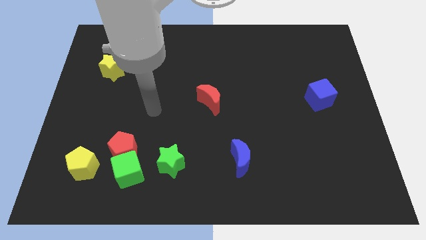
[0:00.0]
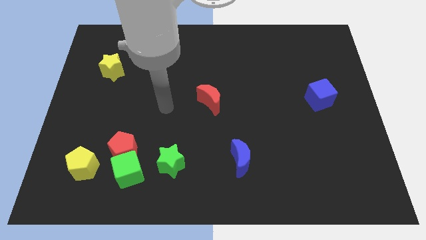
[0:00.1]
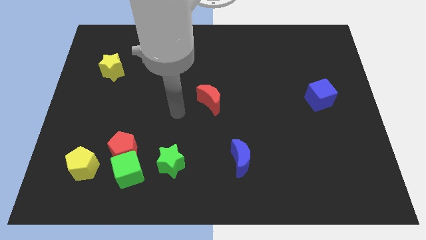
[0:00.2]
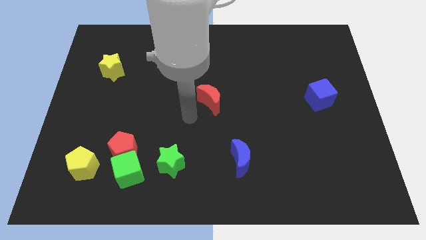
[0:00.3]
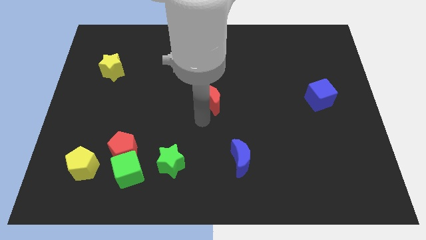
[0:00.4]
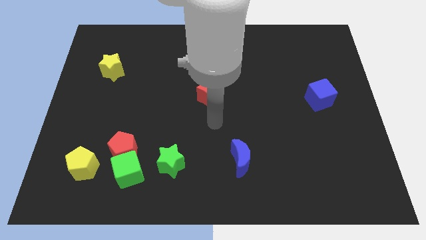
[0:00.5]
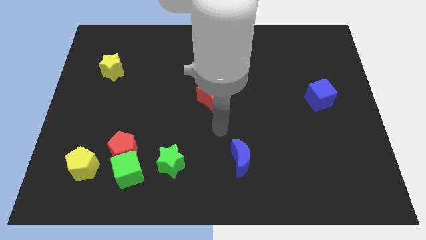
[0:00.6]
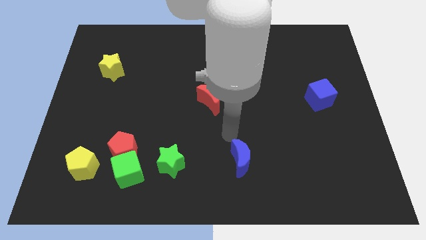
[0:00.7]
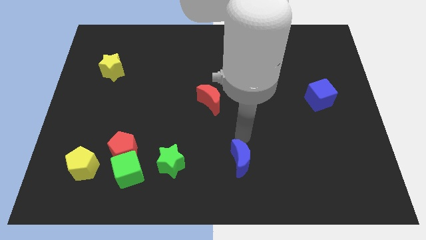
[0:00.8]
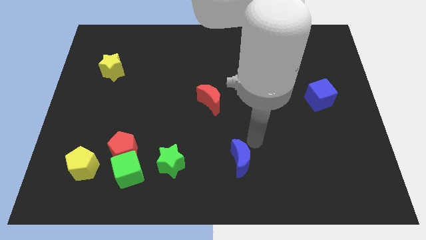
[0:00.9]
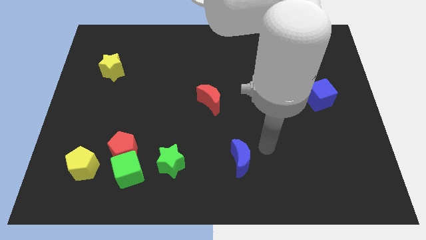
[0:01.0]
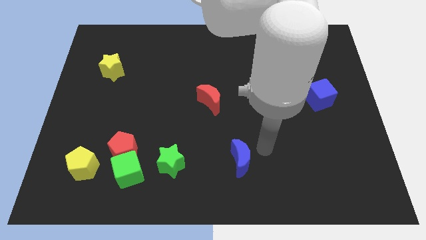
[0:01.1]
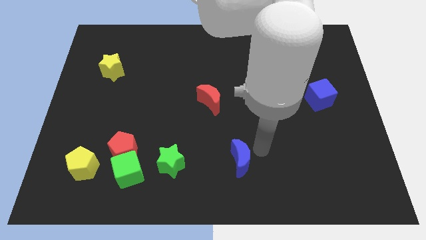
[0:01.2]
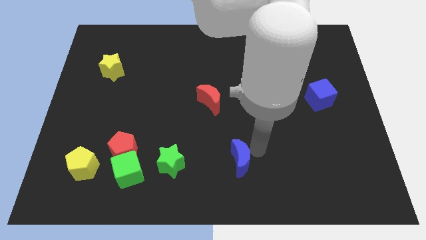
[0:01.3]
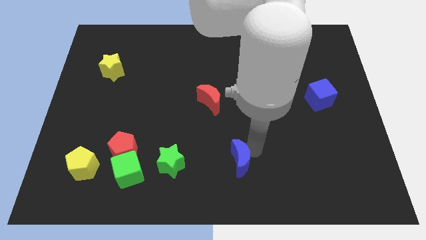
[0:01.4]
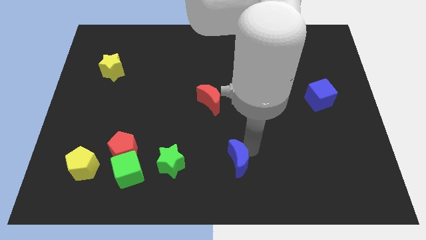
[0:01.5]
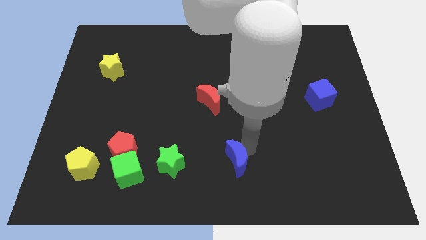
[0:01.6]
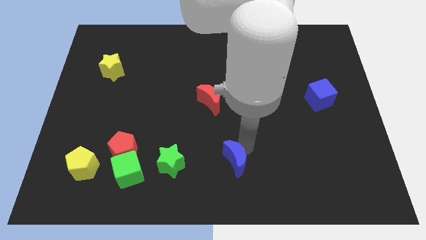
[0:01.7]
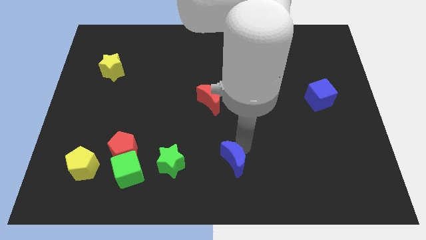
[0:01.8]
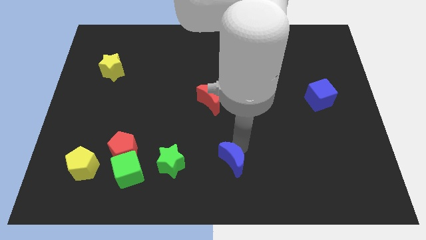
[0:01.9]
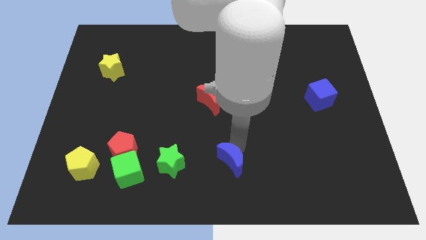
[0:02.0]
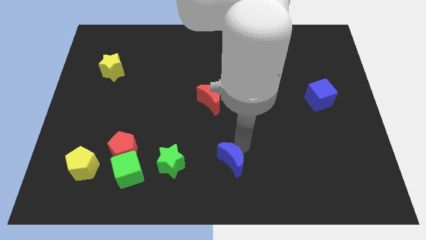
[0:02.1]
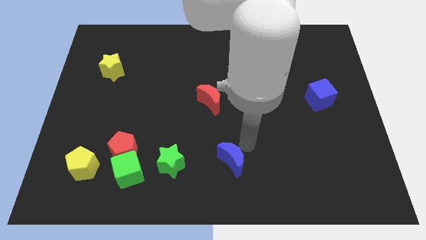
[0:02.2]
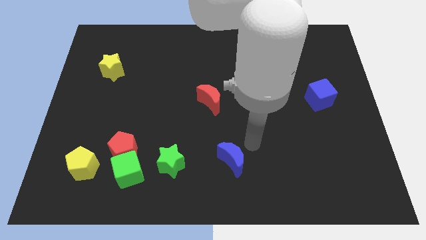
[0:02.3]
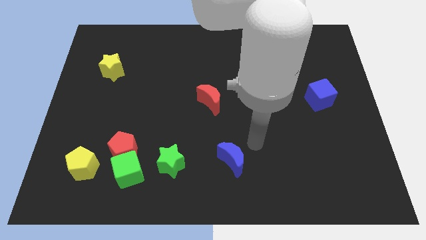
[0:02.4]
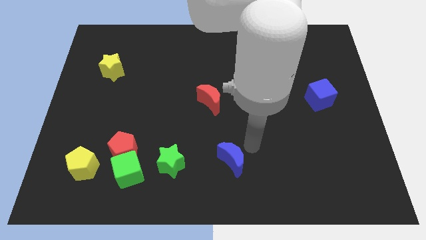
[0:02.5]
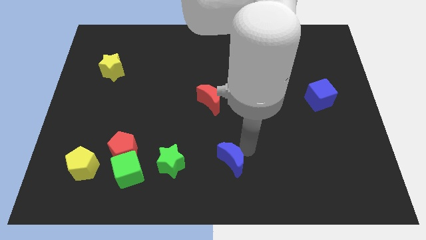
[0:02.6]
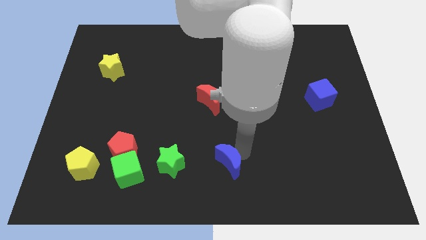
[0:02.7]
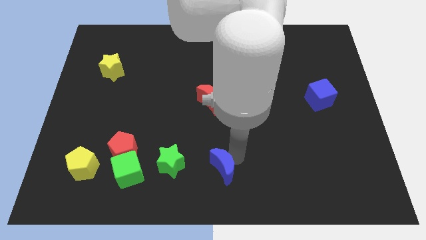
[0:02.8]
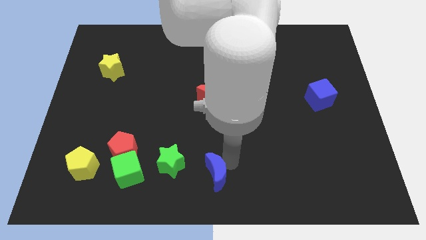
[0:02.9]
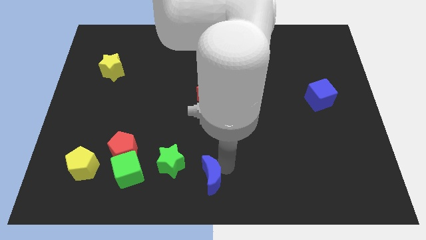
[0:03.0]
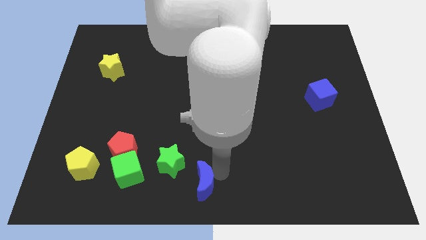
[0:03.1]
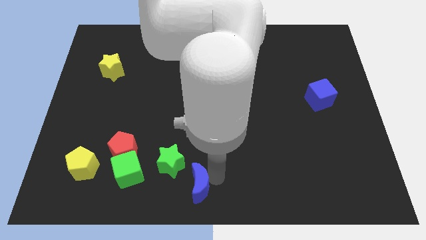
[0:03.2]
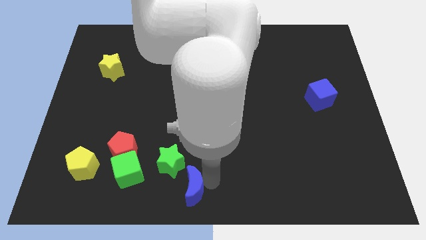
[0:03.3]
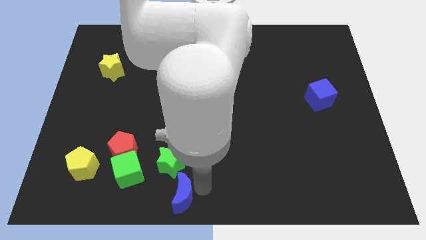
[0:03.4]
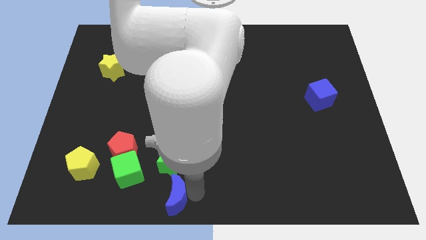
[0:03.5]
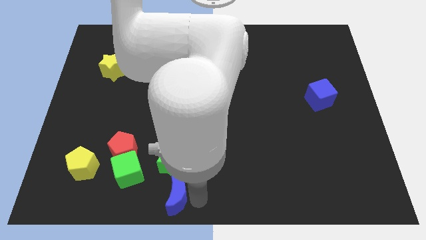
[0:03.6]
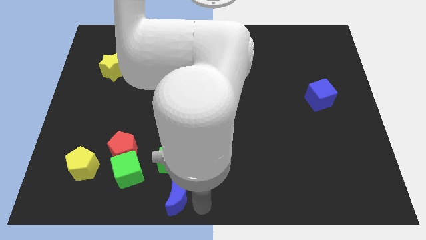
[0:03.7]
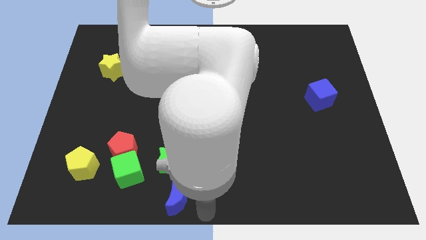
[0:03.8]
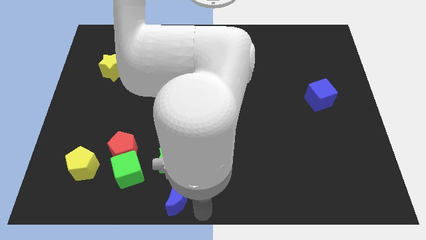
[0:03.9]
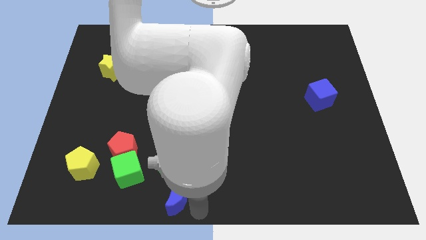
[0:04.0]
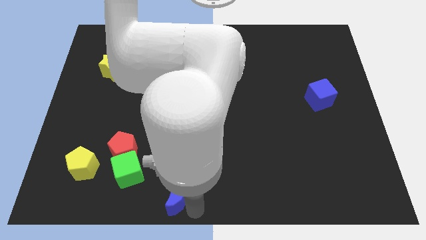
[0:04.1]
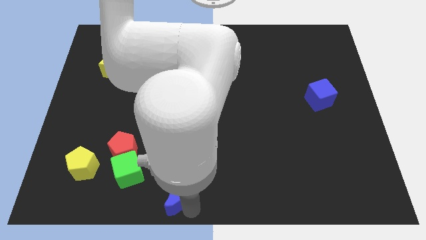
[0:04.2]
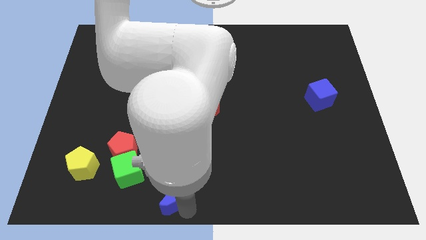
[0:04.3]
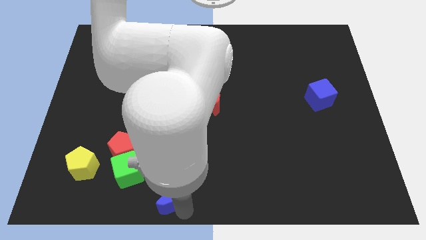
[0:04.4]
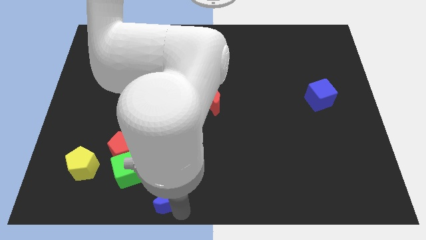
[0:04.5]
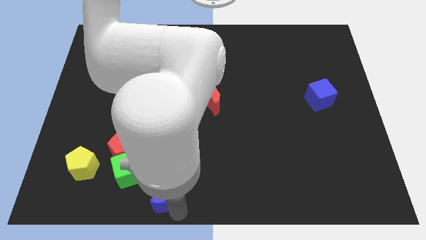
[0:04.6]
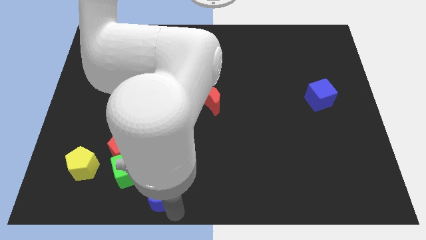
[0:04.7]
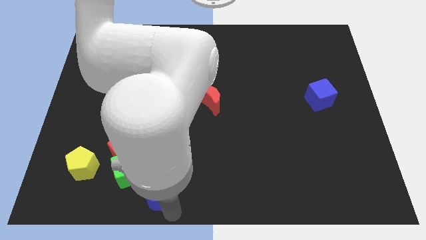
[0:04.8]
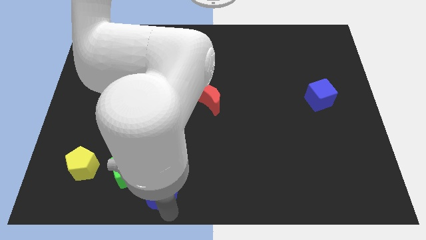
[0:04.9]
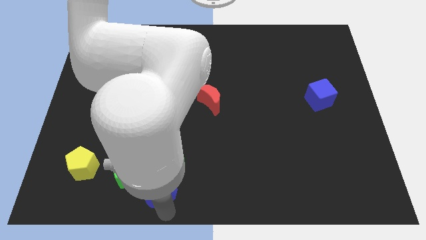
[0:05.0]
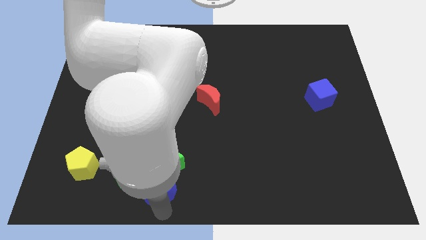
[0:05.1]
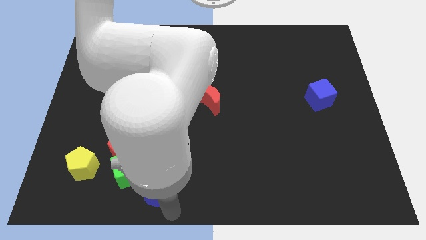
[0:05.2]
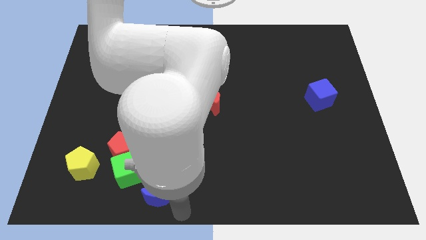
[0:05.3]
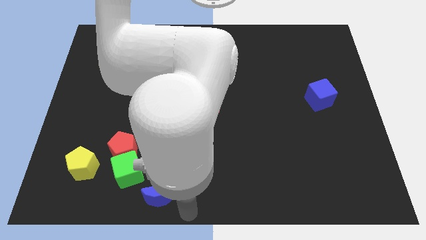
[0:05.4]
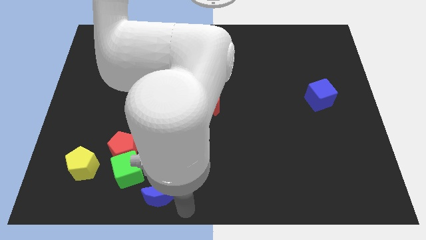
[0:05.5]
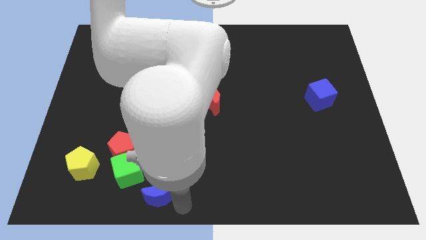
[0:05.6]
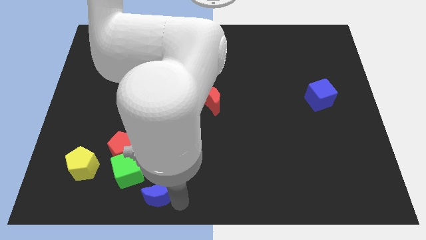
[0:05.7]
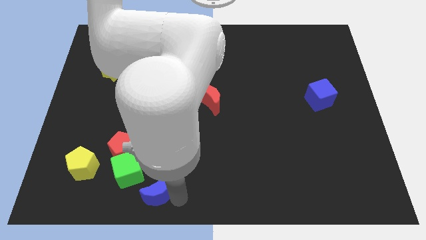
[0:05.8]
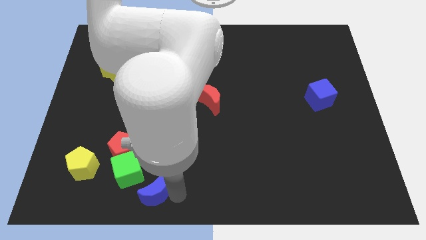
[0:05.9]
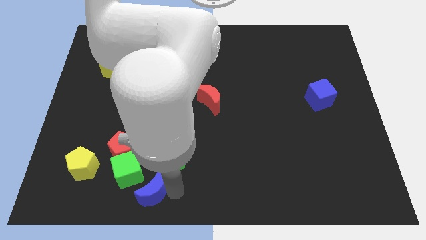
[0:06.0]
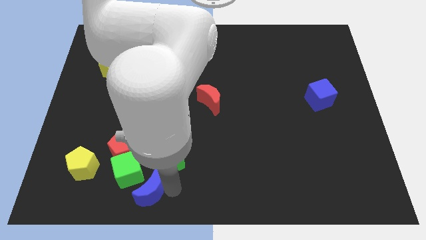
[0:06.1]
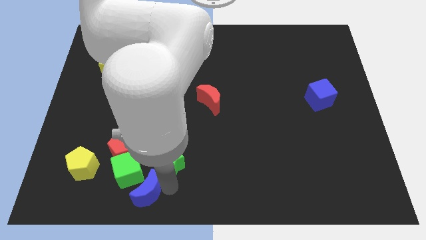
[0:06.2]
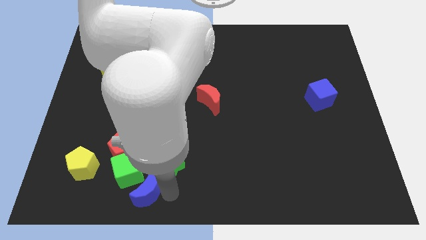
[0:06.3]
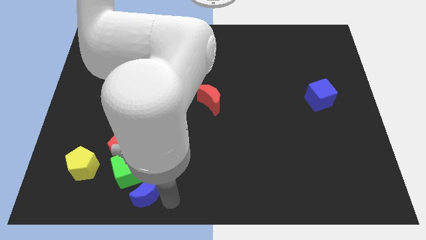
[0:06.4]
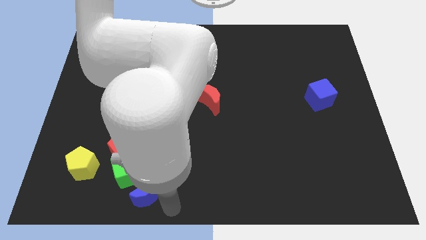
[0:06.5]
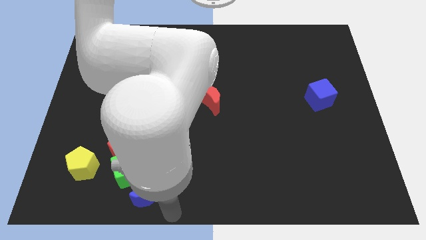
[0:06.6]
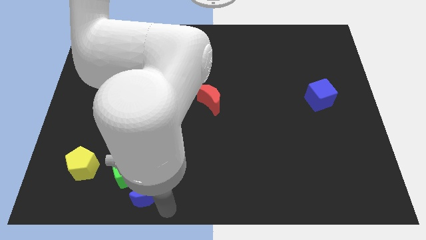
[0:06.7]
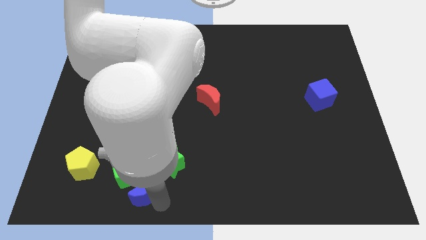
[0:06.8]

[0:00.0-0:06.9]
slide the blue moon close to the green cube

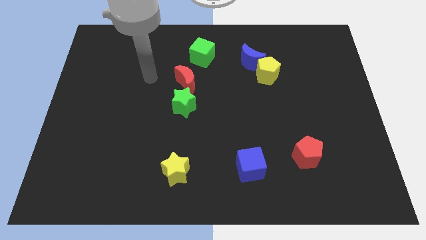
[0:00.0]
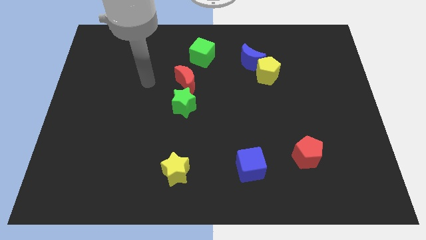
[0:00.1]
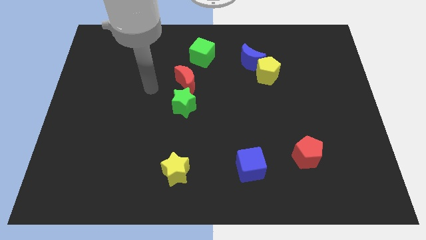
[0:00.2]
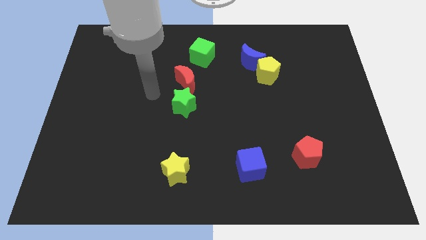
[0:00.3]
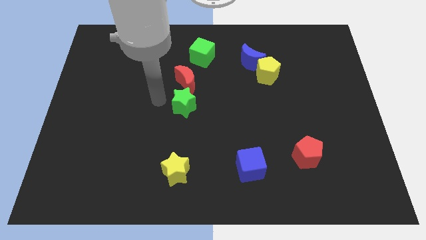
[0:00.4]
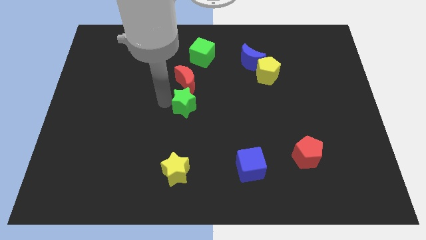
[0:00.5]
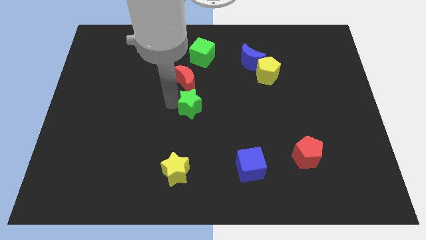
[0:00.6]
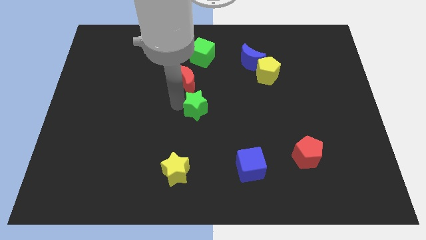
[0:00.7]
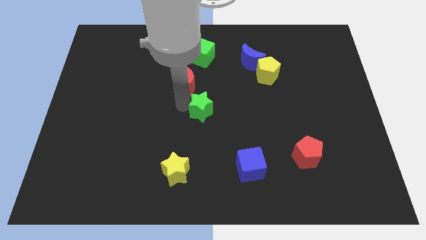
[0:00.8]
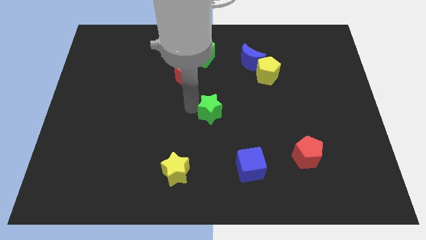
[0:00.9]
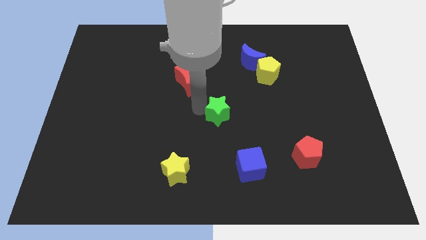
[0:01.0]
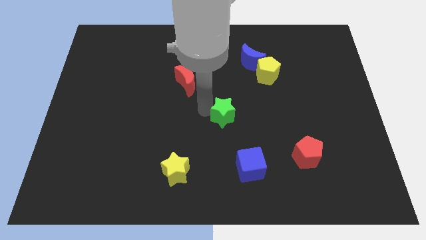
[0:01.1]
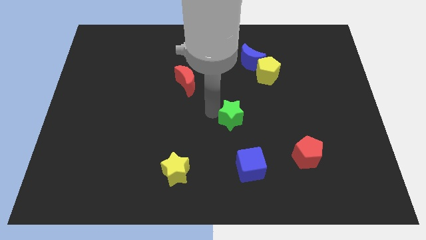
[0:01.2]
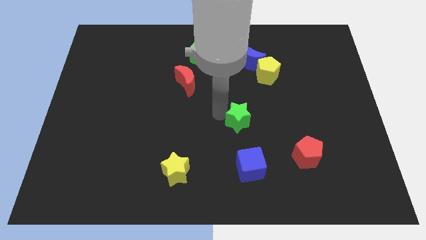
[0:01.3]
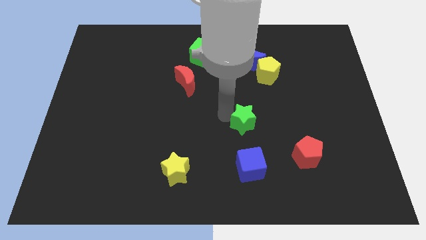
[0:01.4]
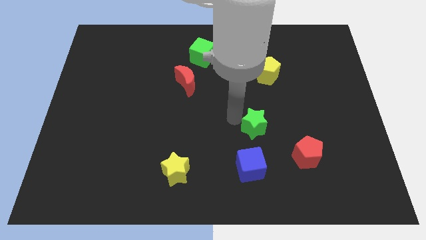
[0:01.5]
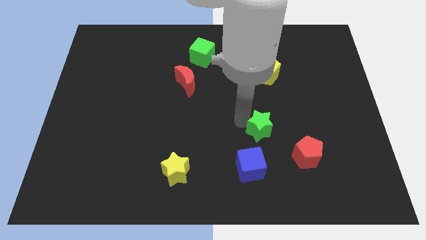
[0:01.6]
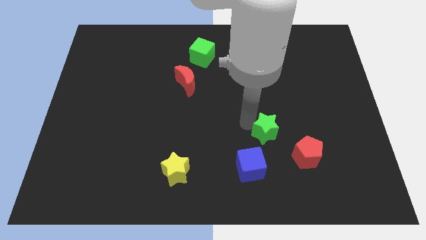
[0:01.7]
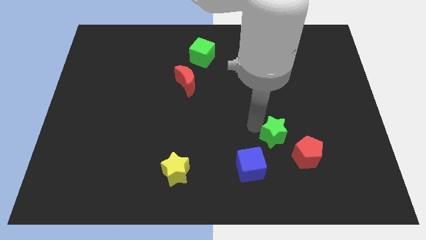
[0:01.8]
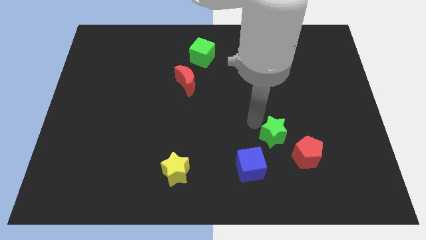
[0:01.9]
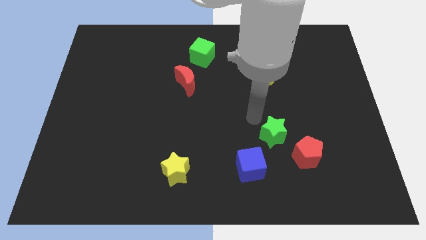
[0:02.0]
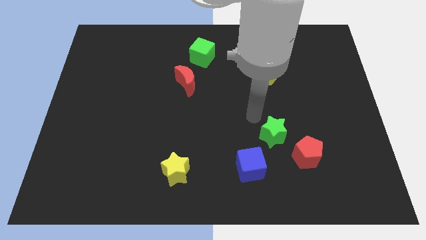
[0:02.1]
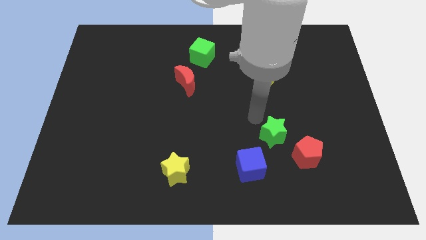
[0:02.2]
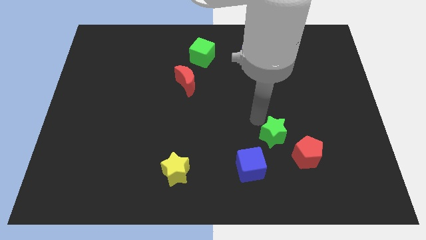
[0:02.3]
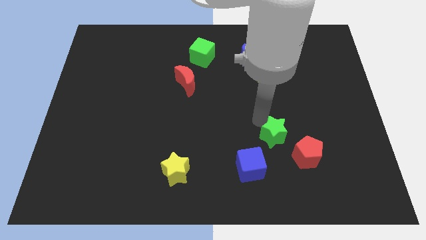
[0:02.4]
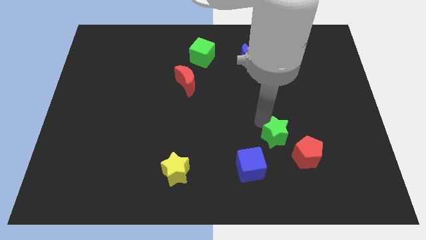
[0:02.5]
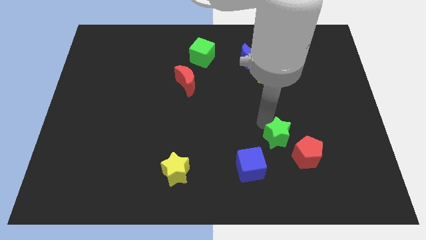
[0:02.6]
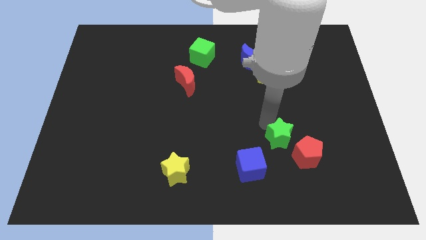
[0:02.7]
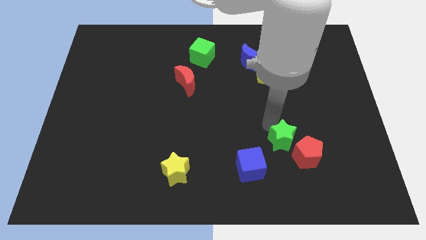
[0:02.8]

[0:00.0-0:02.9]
put the green star to the red pentagon
